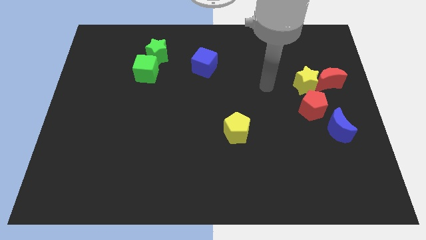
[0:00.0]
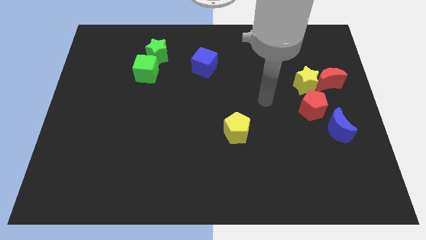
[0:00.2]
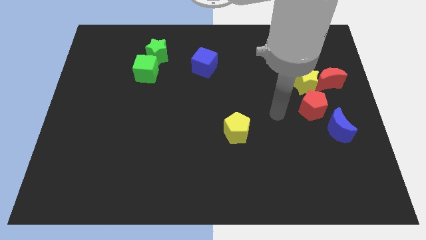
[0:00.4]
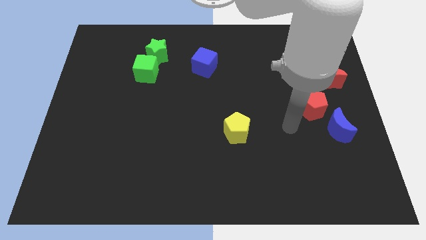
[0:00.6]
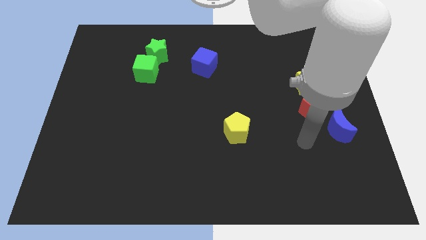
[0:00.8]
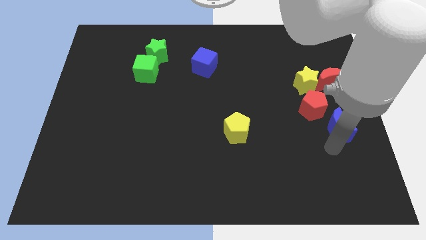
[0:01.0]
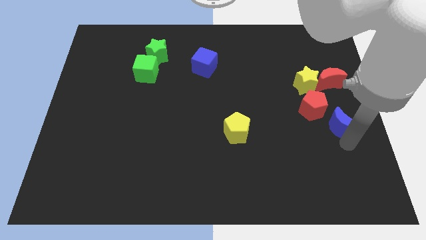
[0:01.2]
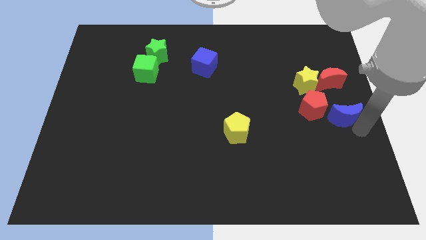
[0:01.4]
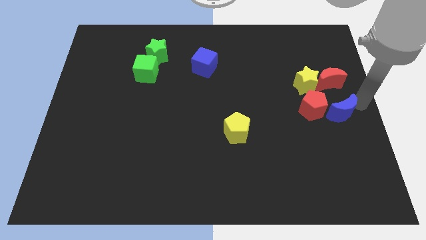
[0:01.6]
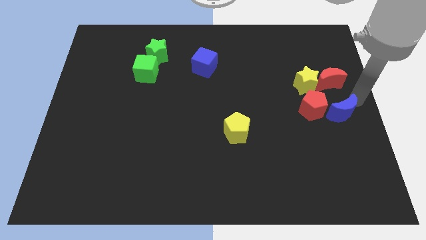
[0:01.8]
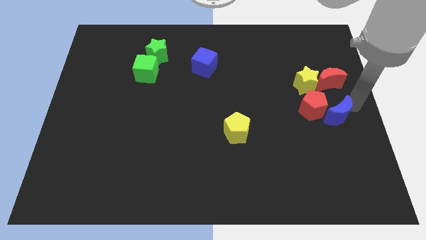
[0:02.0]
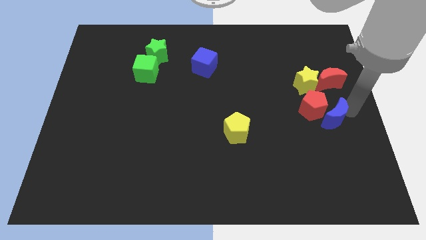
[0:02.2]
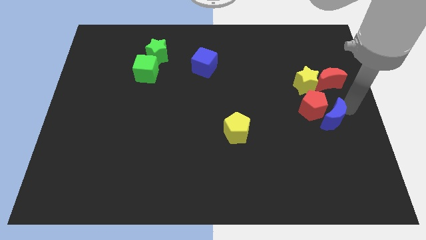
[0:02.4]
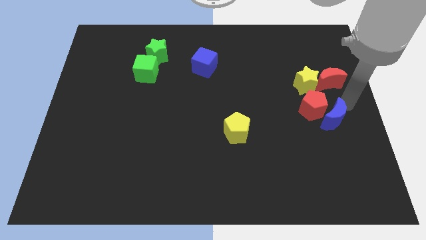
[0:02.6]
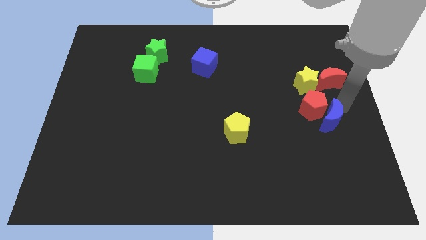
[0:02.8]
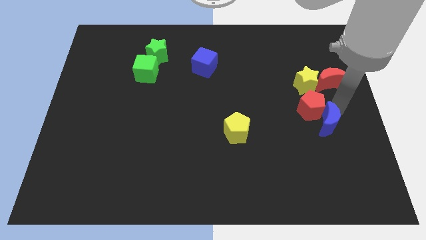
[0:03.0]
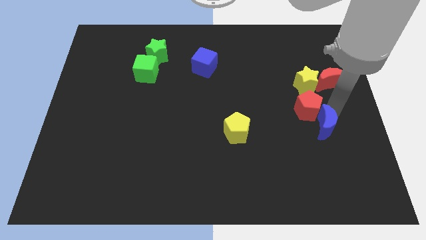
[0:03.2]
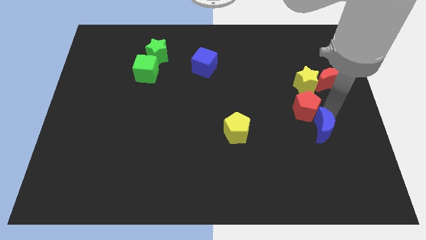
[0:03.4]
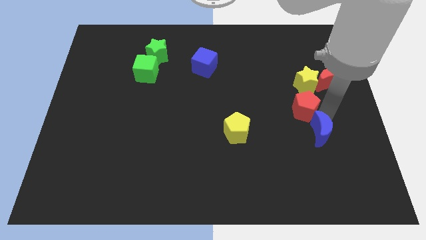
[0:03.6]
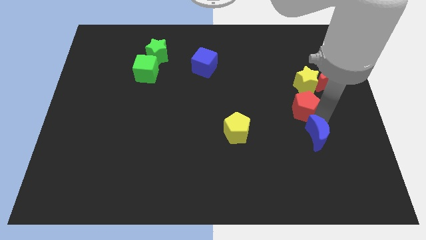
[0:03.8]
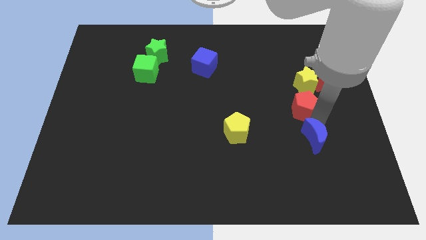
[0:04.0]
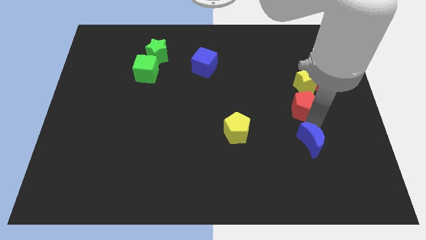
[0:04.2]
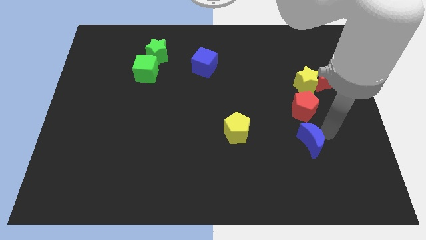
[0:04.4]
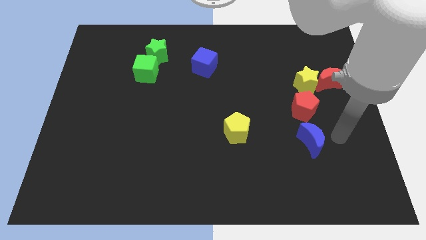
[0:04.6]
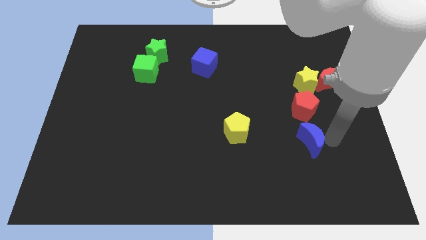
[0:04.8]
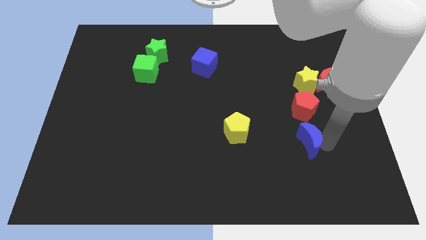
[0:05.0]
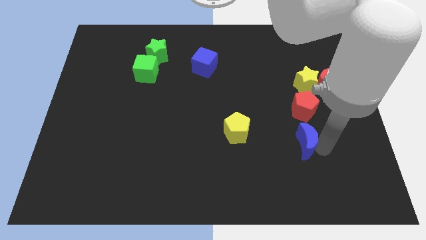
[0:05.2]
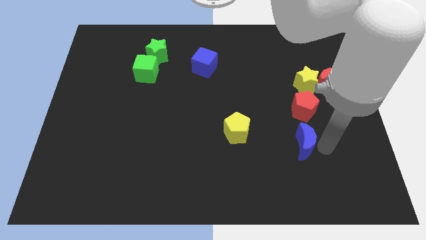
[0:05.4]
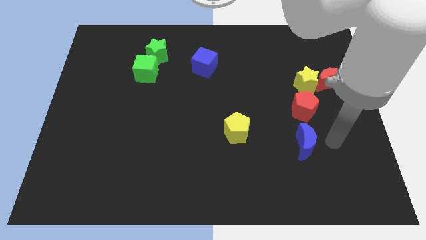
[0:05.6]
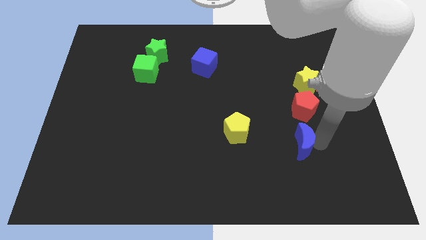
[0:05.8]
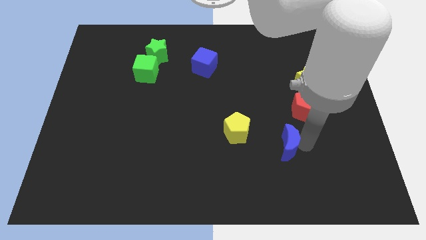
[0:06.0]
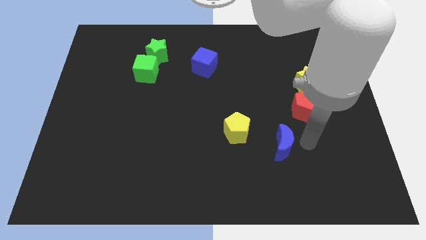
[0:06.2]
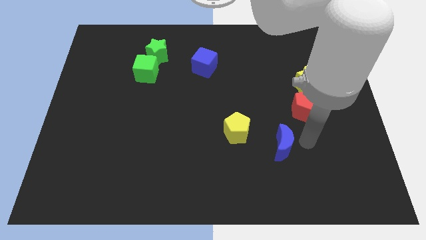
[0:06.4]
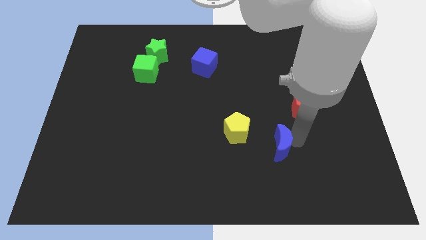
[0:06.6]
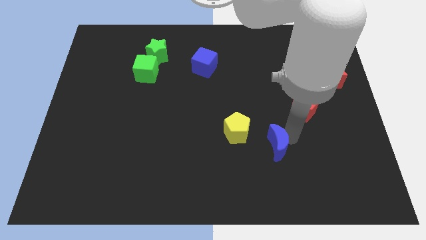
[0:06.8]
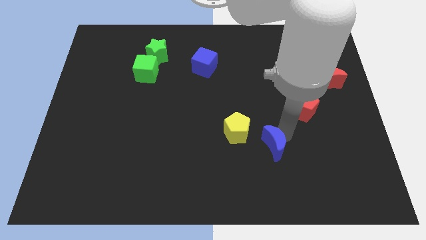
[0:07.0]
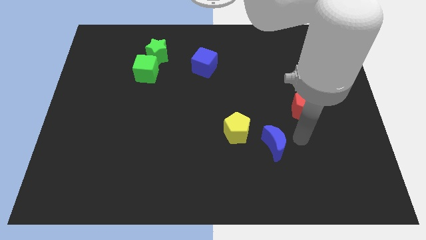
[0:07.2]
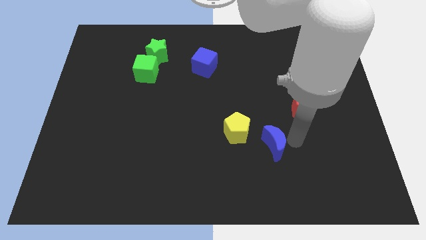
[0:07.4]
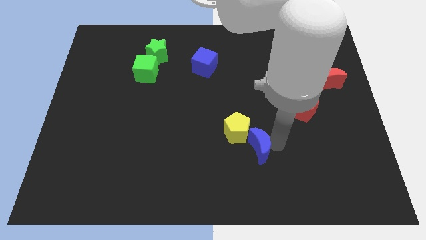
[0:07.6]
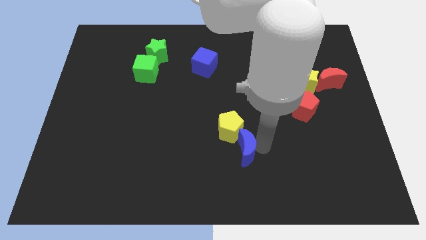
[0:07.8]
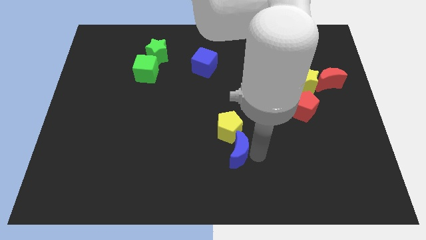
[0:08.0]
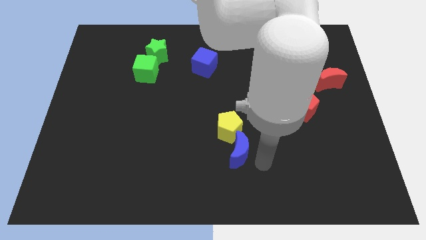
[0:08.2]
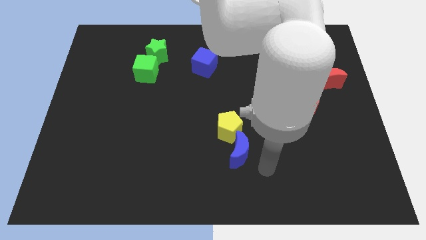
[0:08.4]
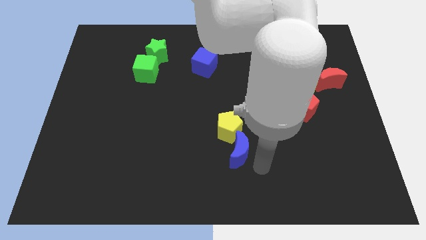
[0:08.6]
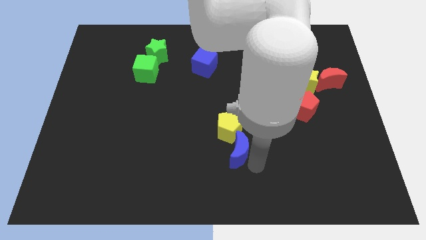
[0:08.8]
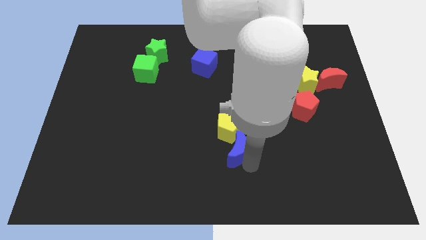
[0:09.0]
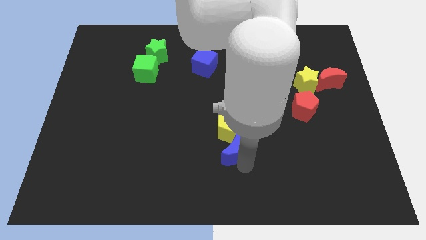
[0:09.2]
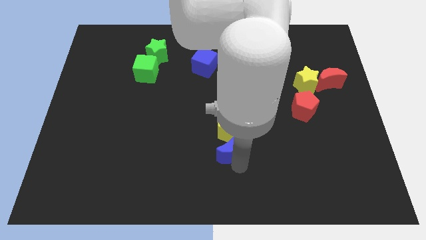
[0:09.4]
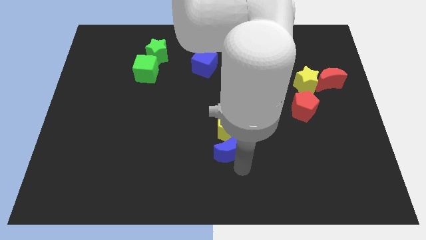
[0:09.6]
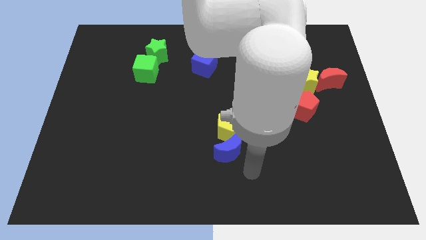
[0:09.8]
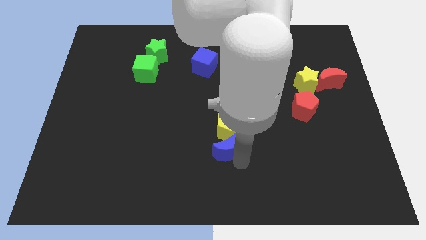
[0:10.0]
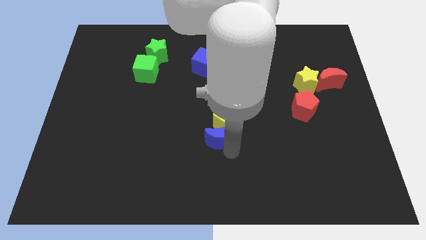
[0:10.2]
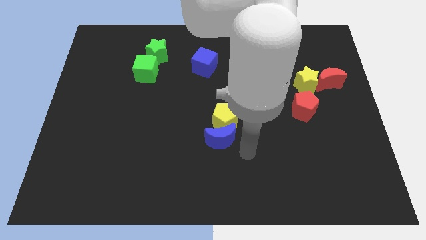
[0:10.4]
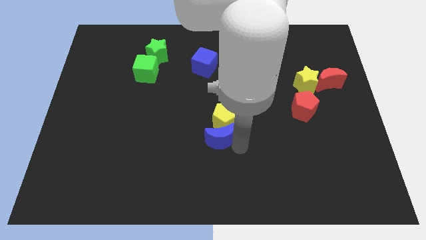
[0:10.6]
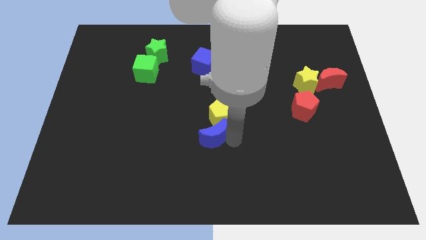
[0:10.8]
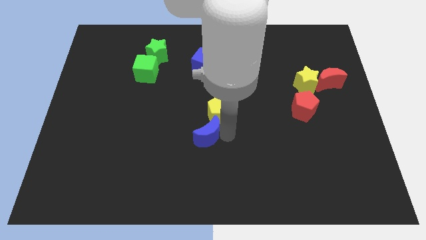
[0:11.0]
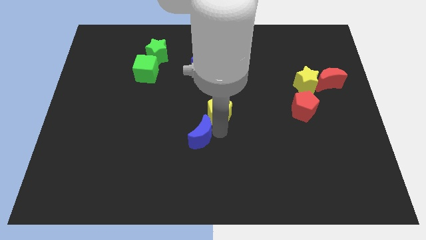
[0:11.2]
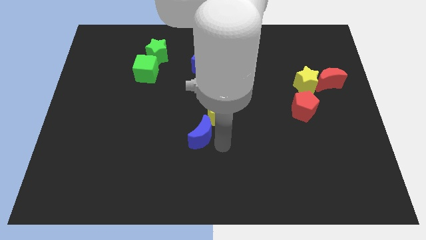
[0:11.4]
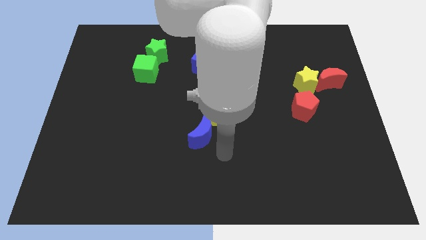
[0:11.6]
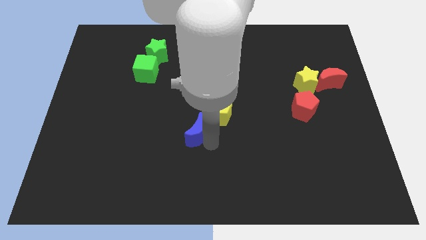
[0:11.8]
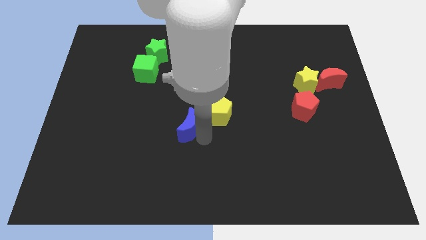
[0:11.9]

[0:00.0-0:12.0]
push the blue moon to the left side of the yellow pentagon
